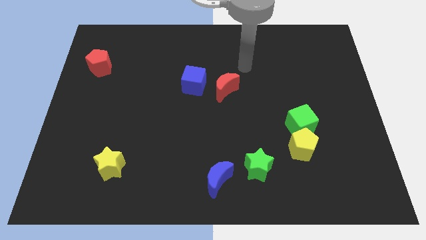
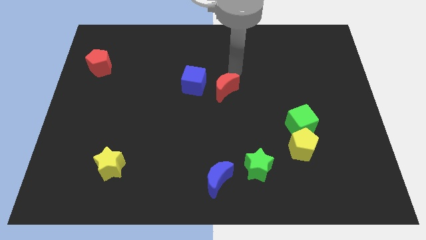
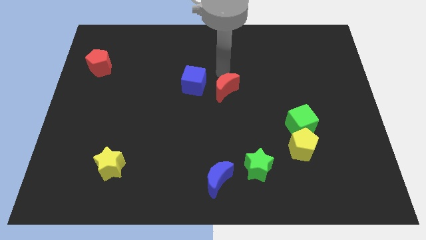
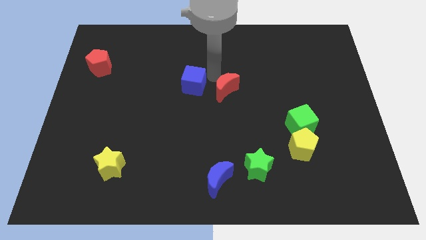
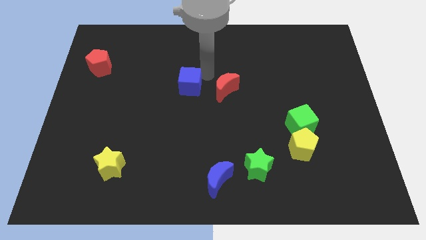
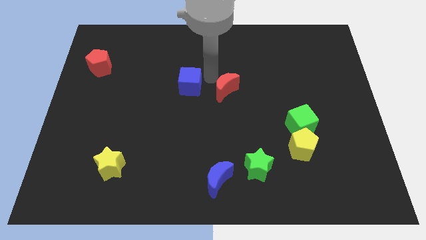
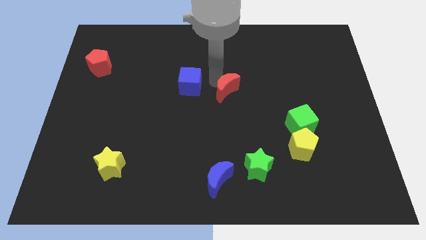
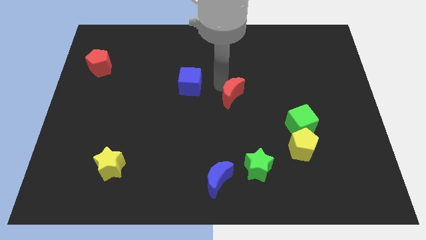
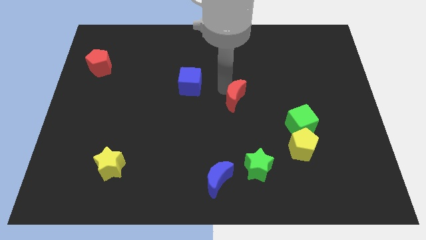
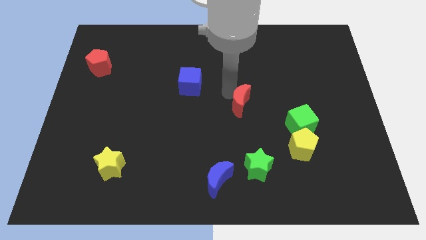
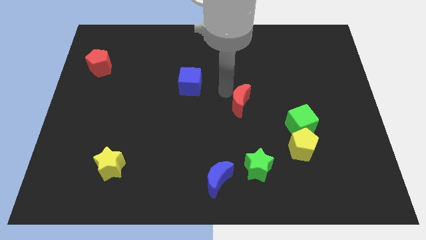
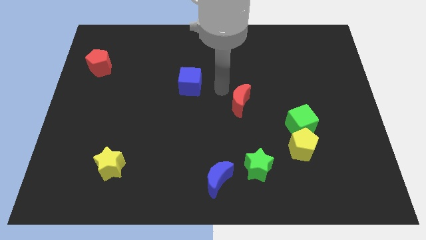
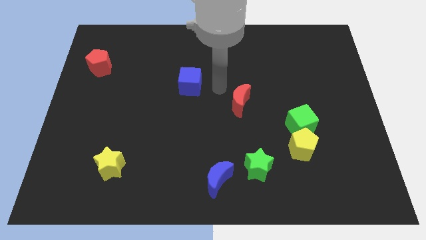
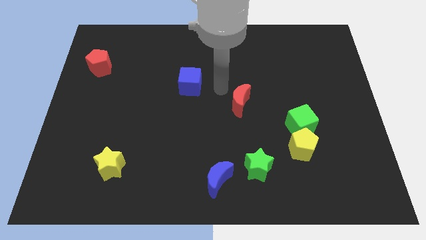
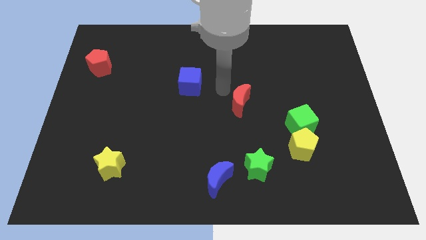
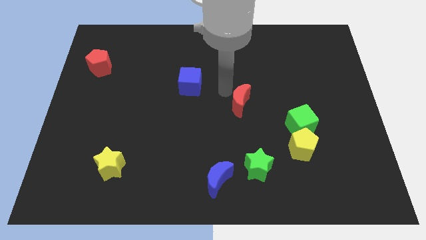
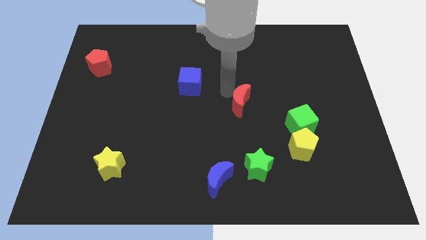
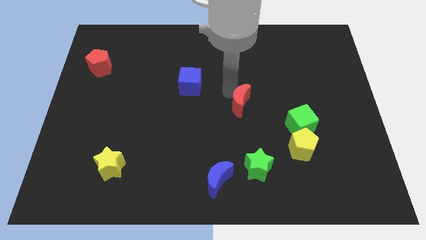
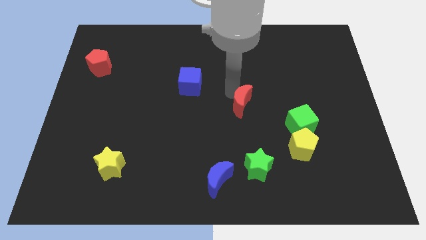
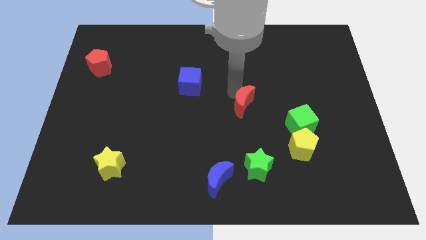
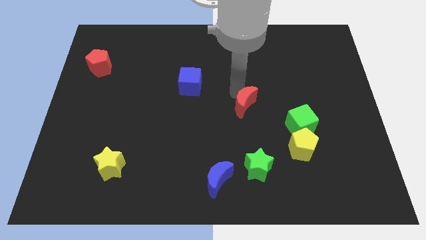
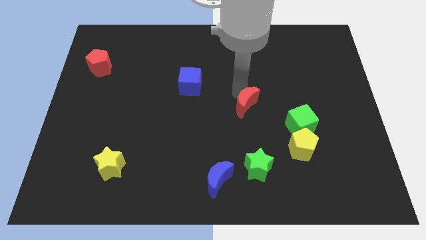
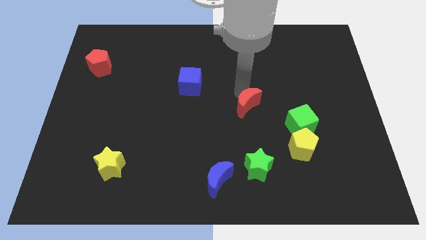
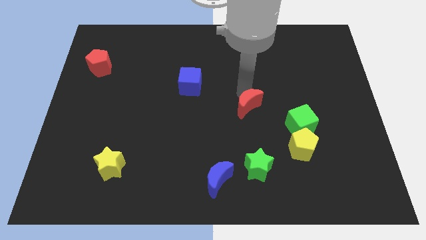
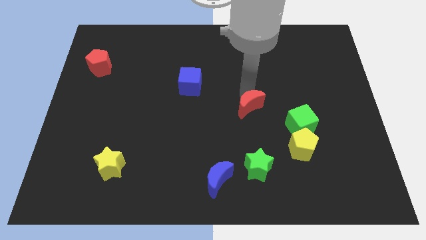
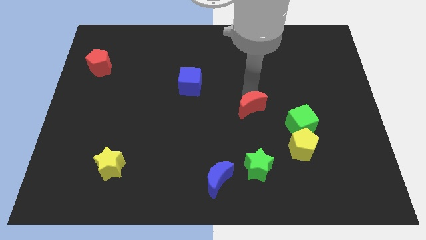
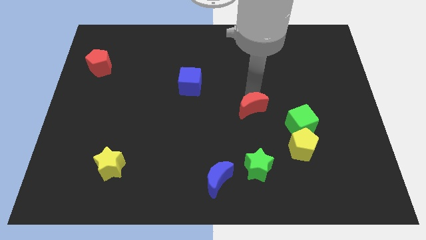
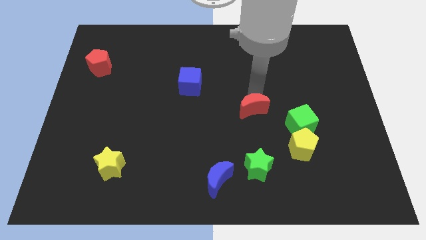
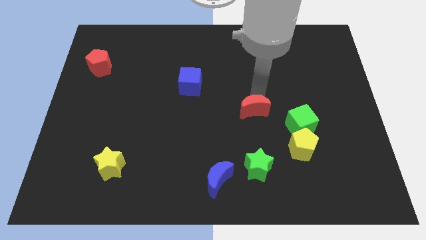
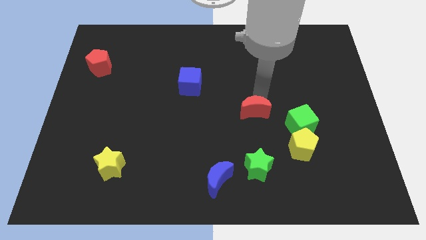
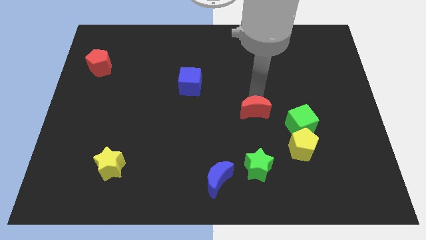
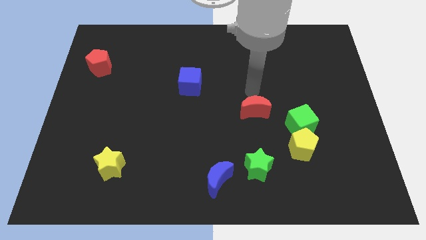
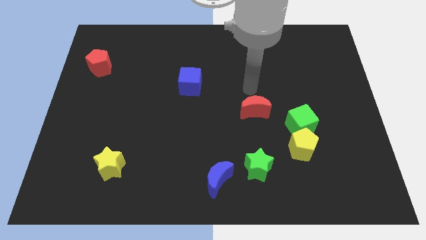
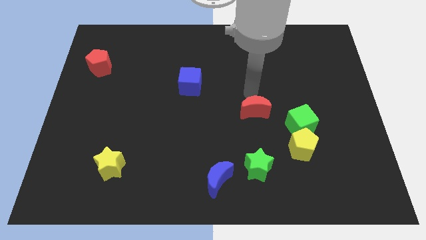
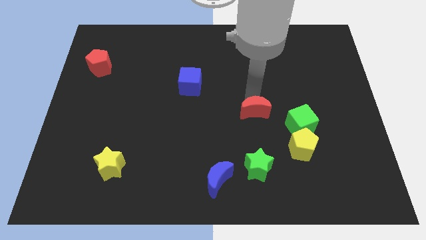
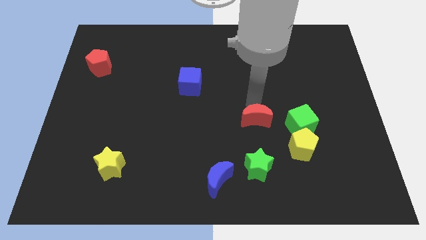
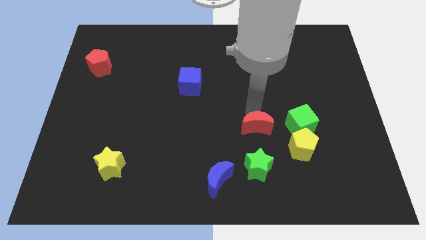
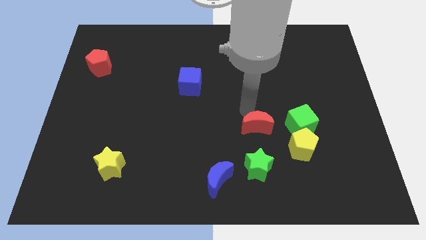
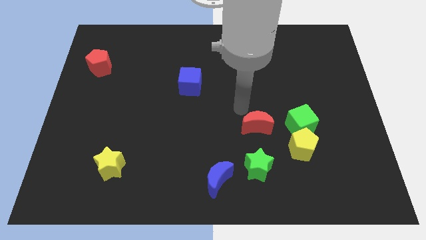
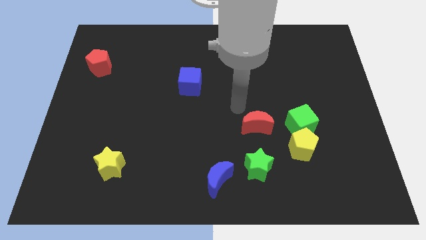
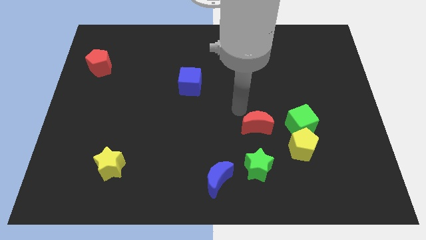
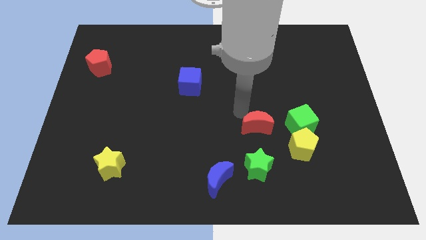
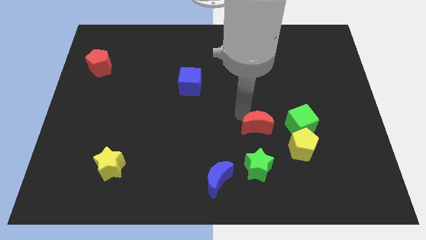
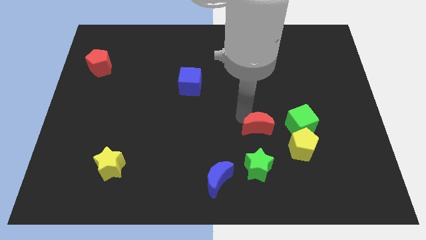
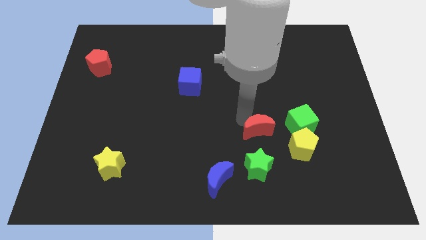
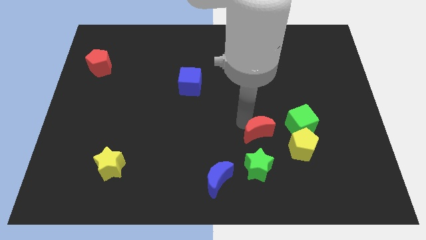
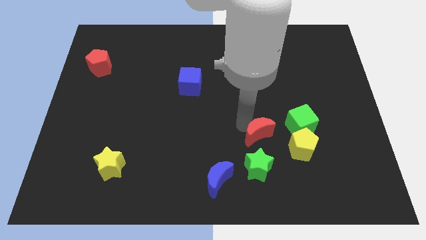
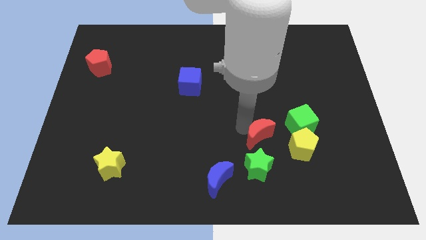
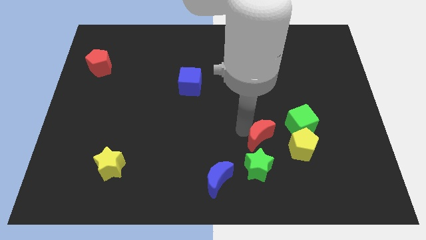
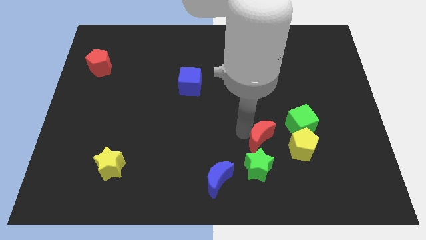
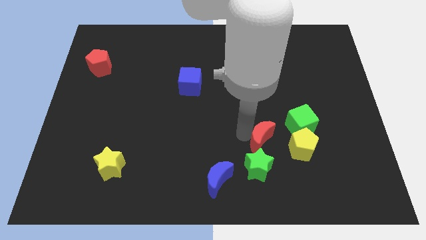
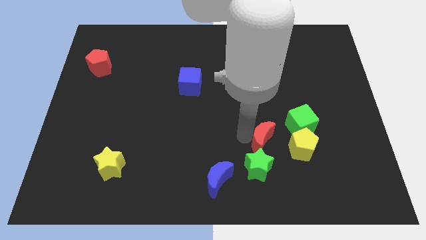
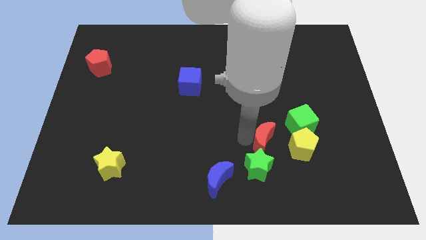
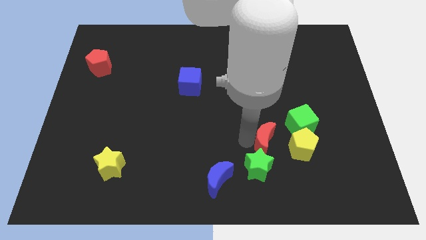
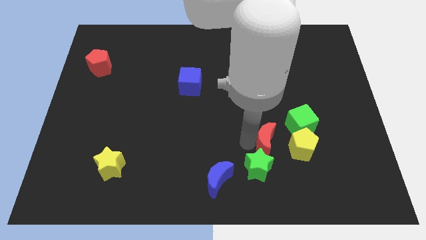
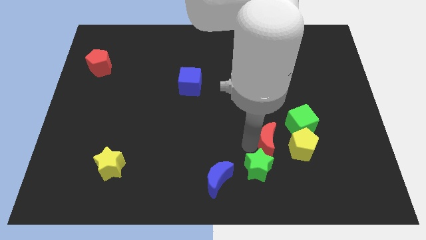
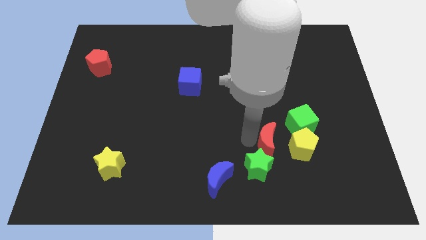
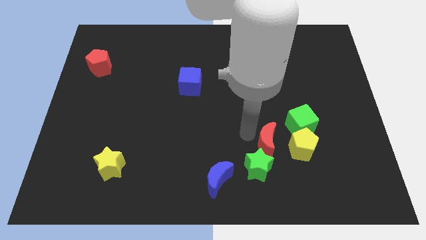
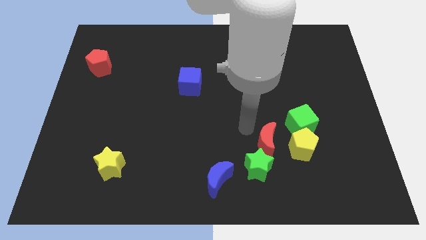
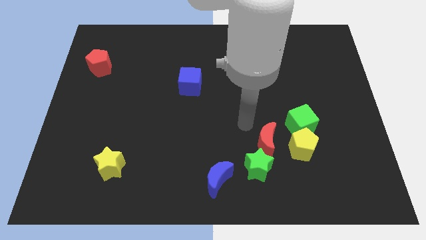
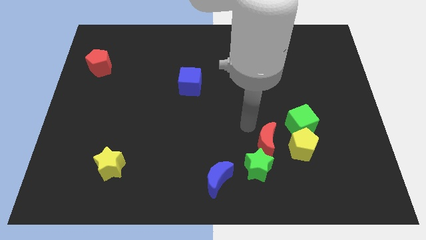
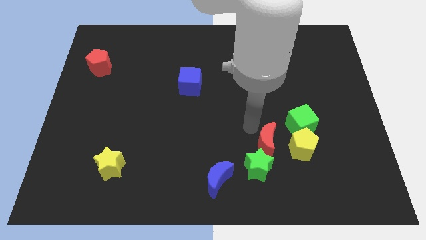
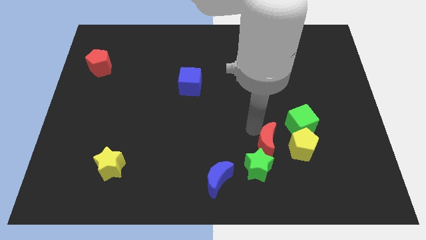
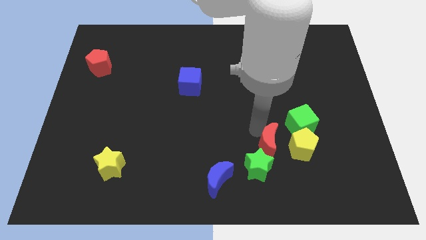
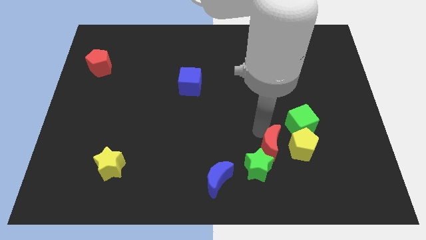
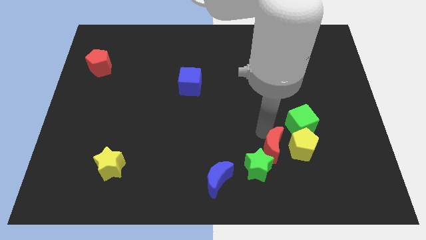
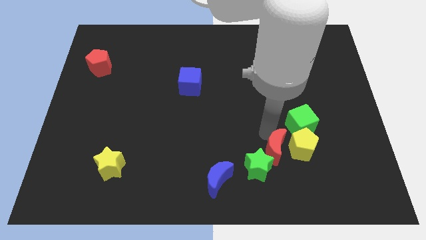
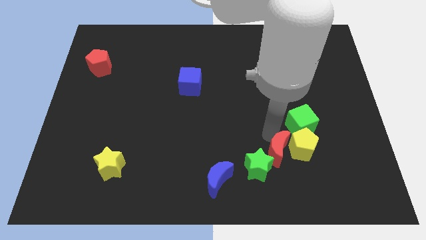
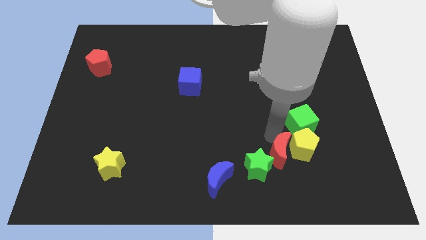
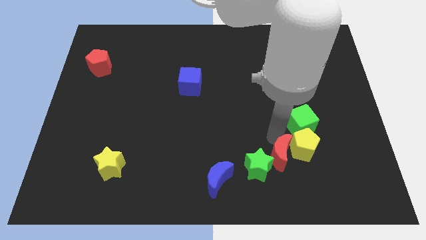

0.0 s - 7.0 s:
push the red moon diagonally down and right

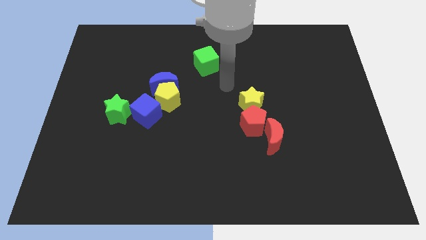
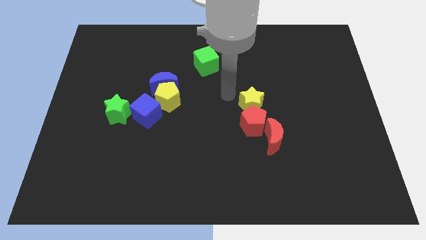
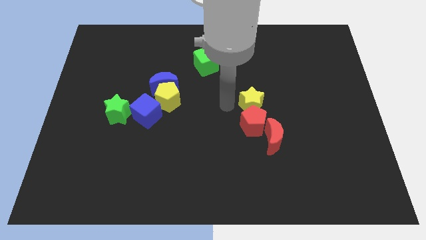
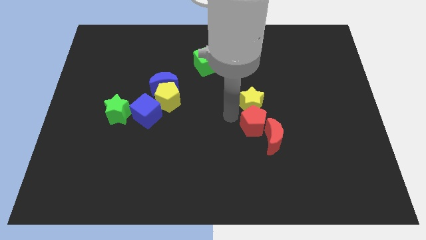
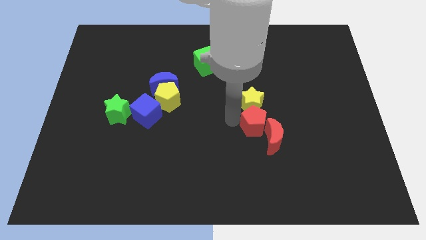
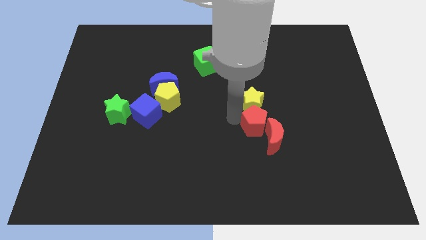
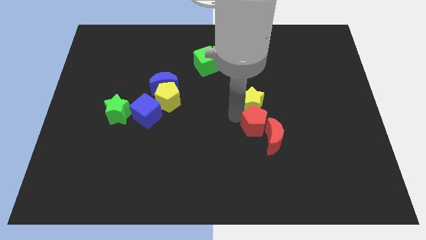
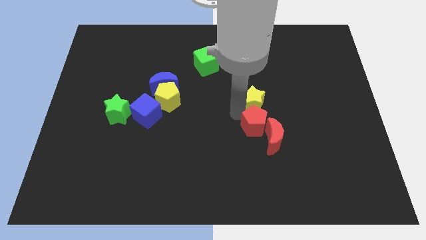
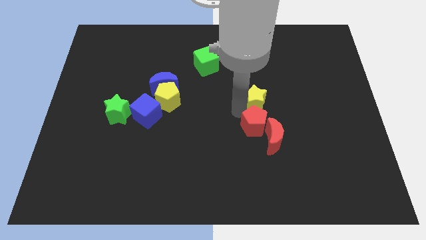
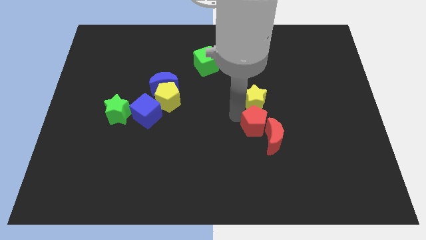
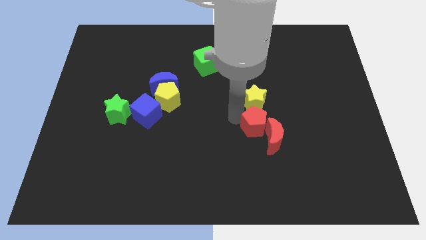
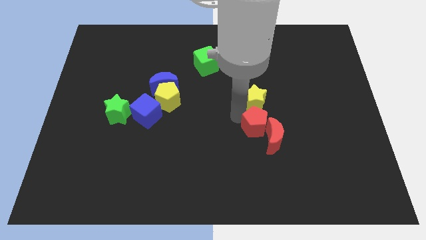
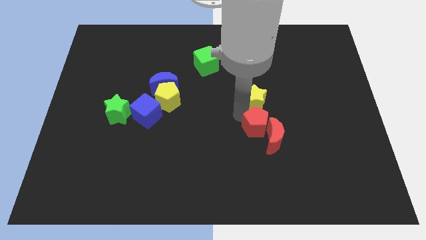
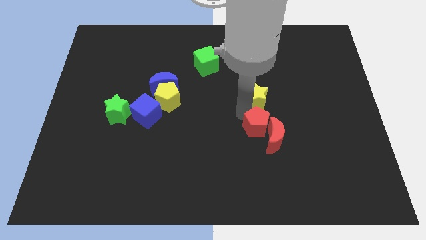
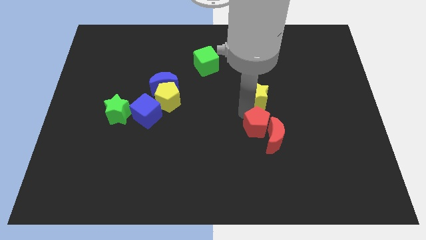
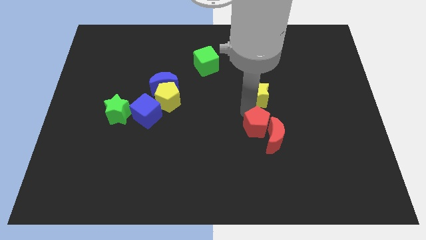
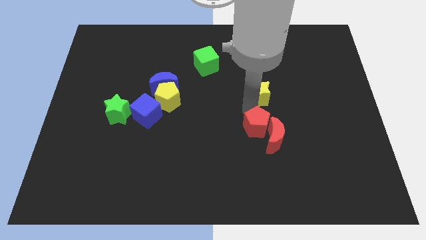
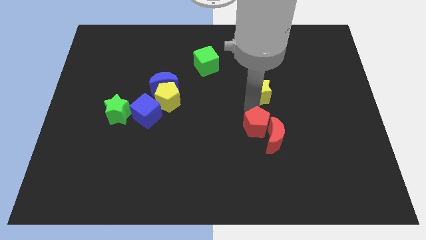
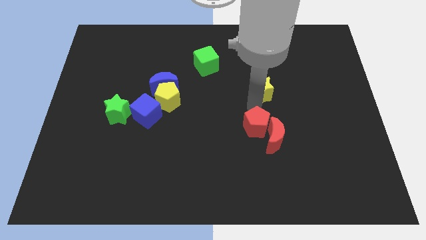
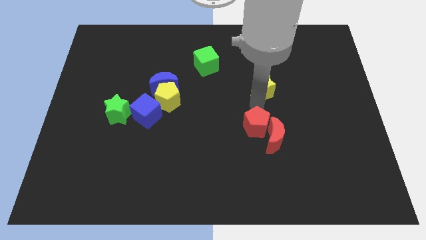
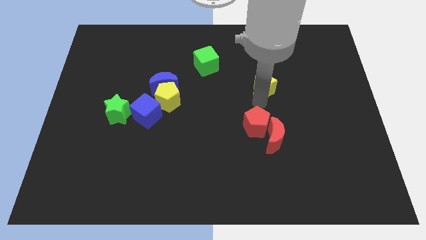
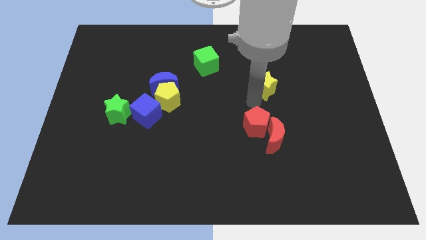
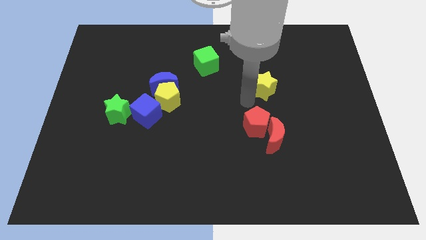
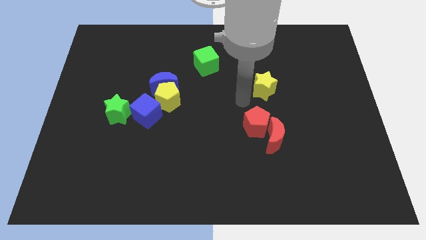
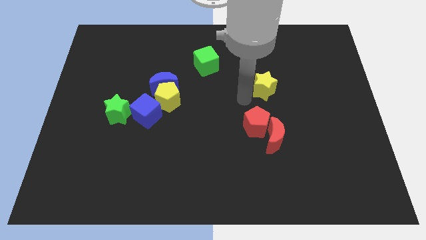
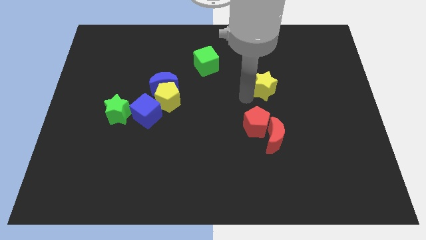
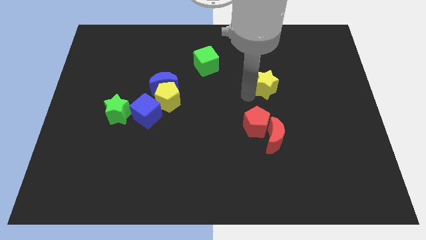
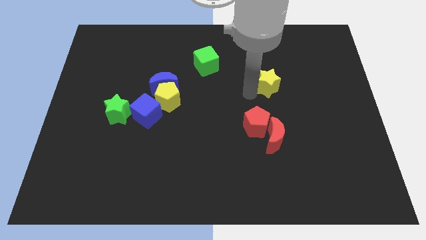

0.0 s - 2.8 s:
slightly push the yellow star up and right
